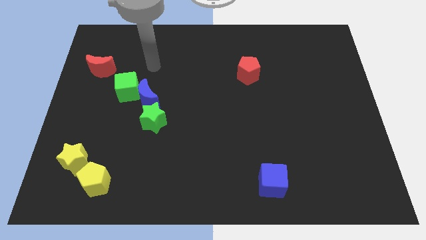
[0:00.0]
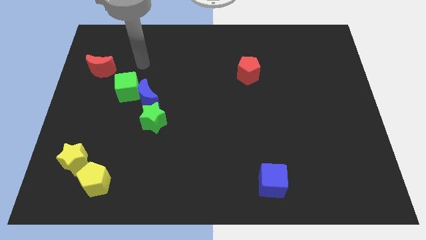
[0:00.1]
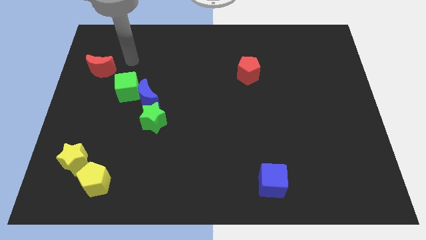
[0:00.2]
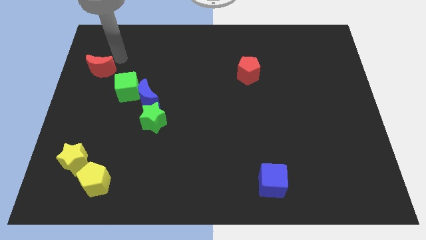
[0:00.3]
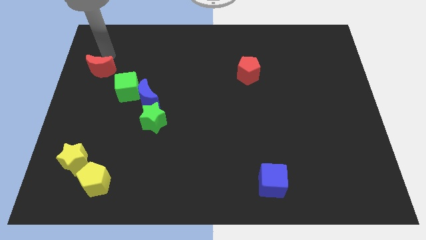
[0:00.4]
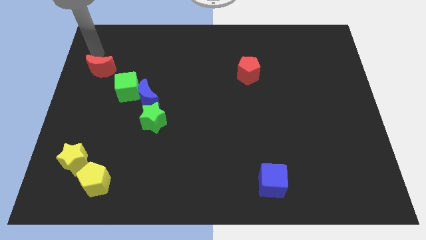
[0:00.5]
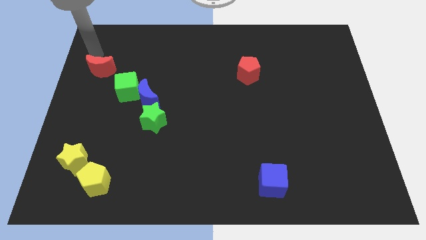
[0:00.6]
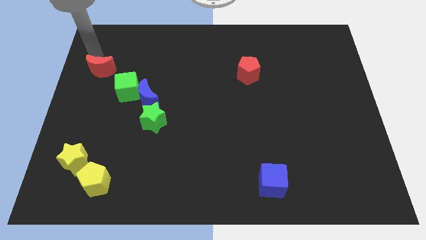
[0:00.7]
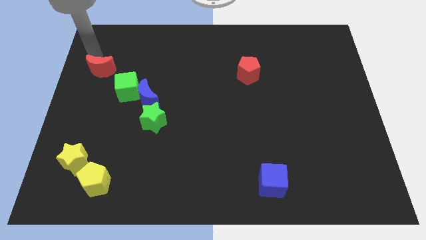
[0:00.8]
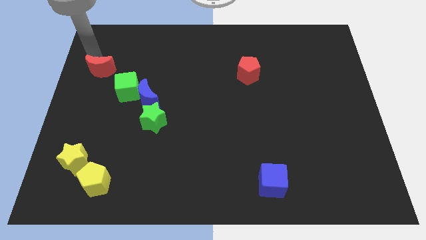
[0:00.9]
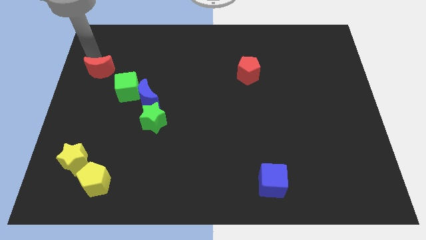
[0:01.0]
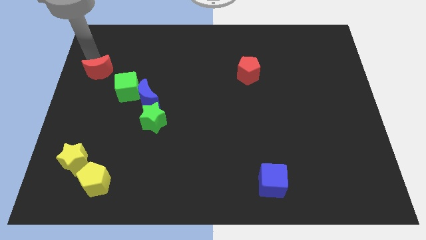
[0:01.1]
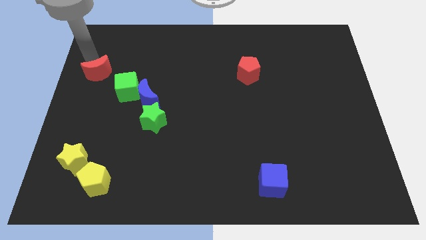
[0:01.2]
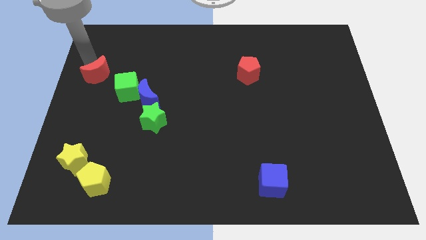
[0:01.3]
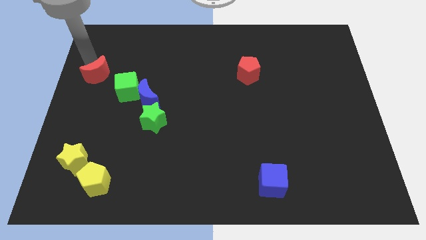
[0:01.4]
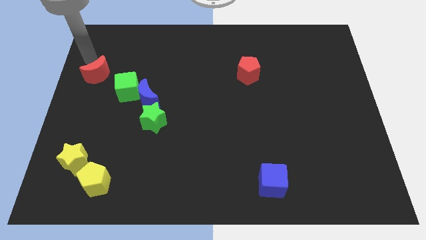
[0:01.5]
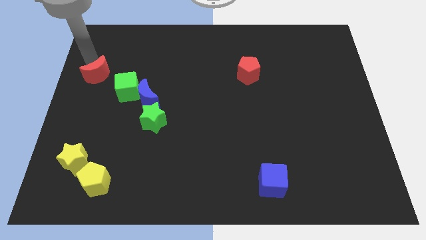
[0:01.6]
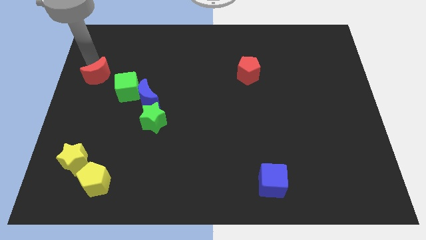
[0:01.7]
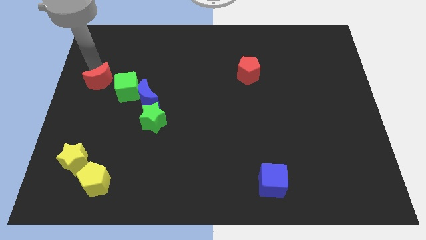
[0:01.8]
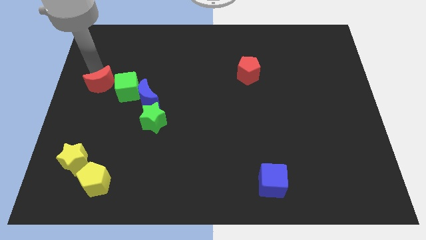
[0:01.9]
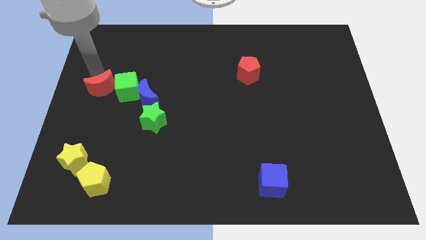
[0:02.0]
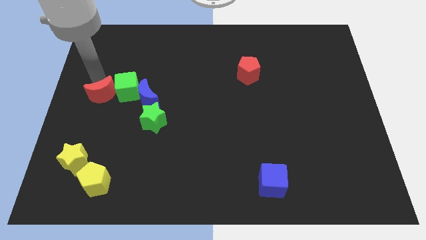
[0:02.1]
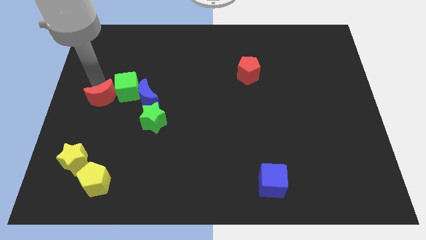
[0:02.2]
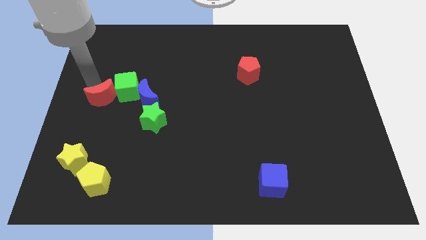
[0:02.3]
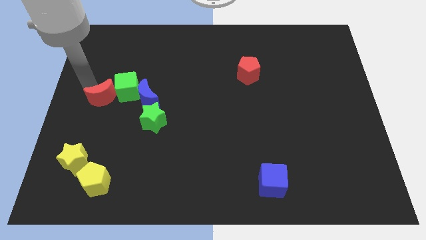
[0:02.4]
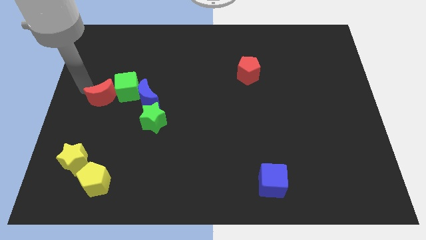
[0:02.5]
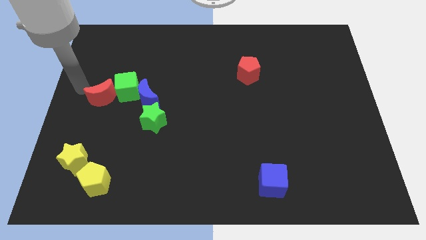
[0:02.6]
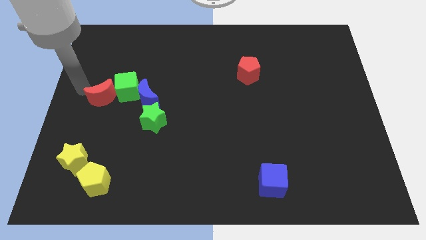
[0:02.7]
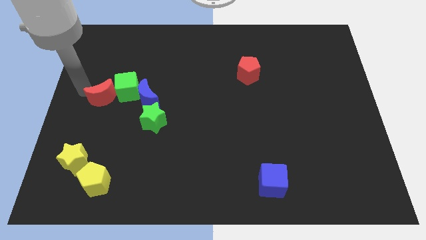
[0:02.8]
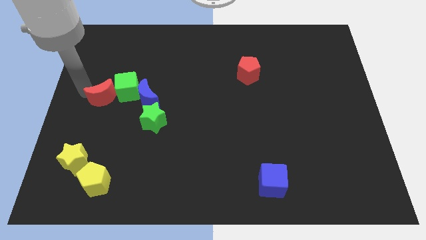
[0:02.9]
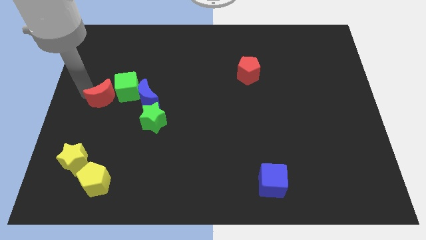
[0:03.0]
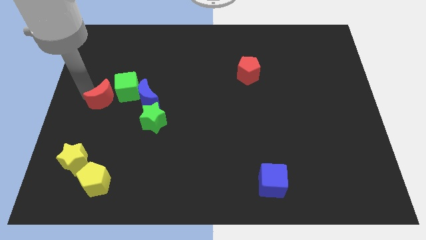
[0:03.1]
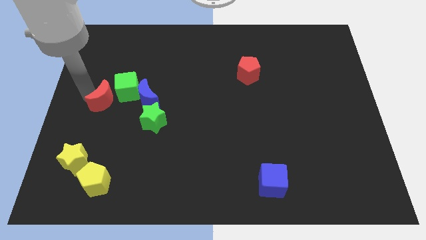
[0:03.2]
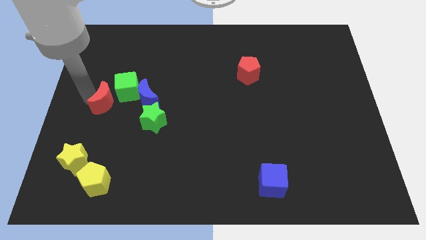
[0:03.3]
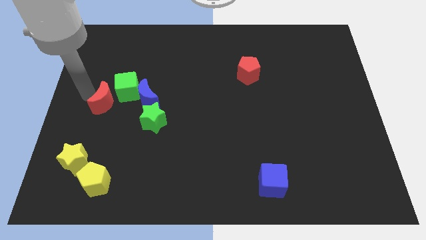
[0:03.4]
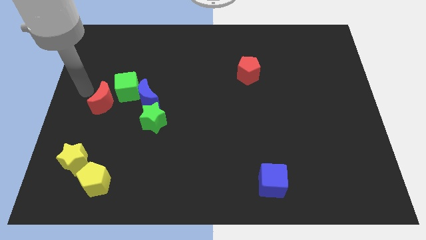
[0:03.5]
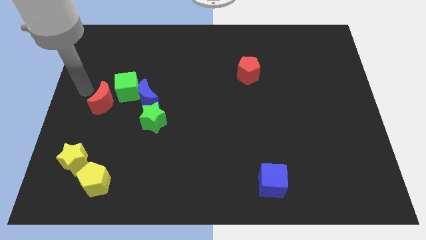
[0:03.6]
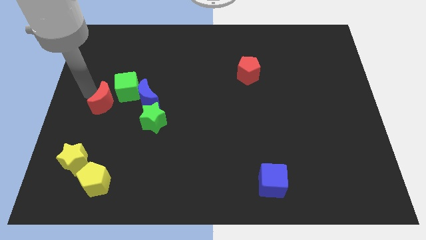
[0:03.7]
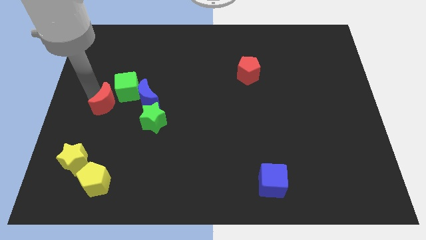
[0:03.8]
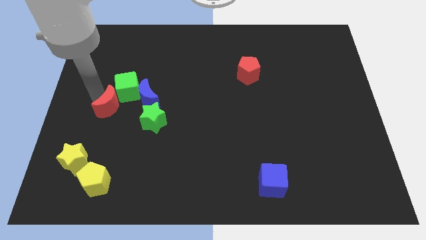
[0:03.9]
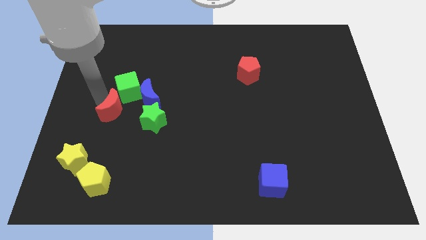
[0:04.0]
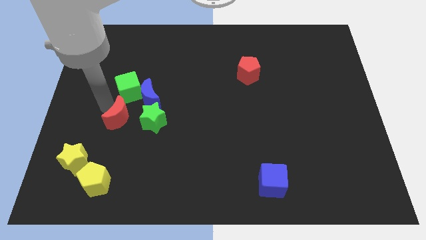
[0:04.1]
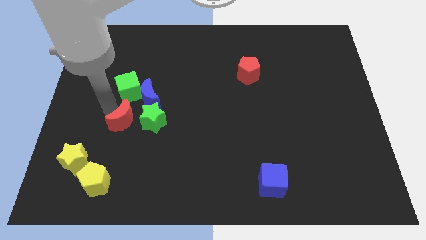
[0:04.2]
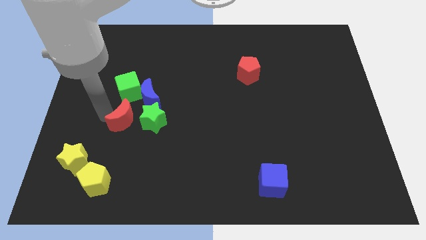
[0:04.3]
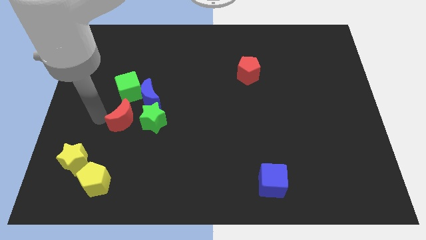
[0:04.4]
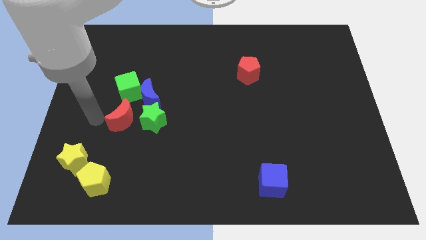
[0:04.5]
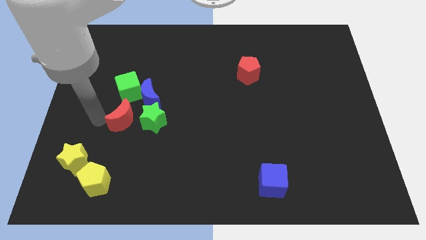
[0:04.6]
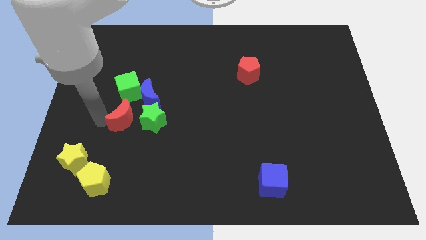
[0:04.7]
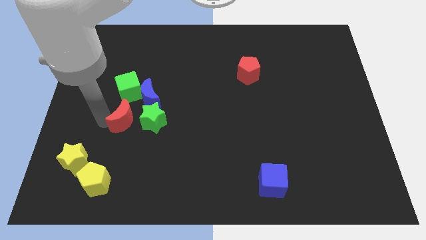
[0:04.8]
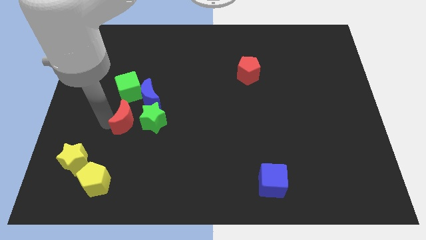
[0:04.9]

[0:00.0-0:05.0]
slide the red moon towards the green star

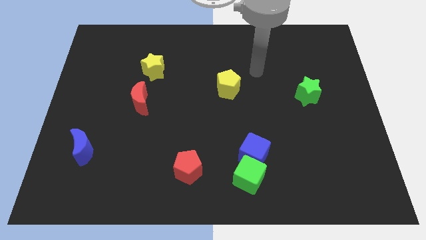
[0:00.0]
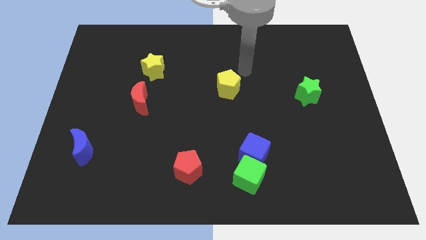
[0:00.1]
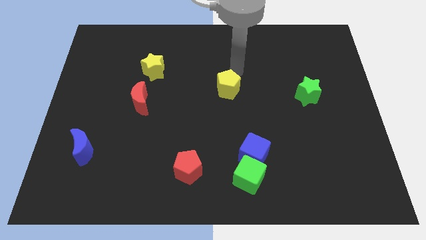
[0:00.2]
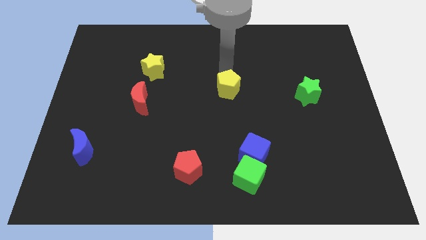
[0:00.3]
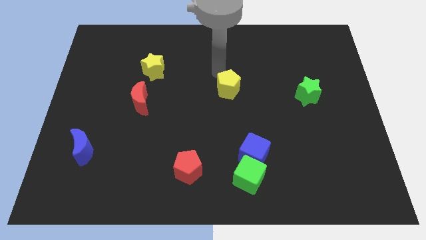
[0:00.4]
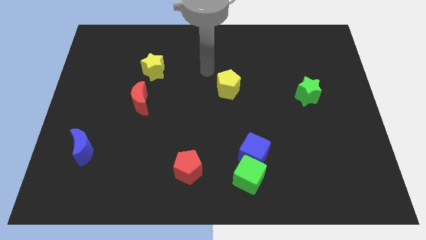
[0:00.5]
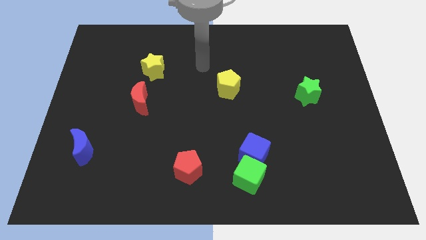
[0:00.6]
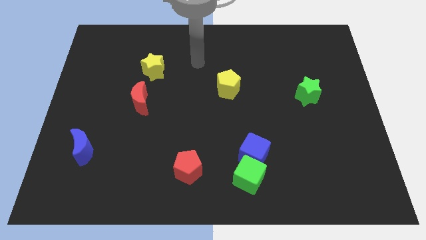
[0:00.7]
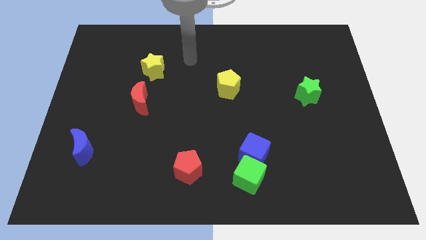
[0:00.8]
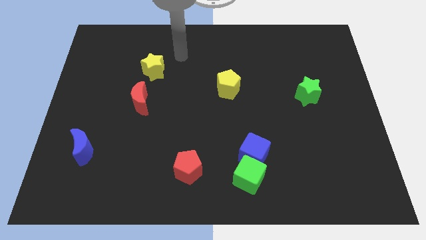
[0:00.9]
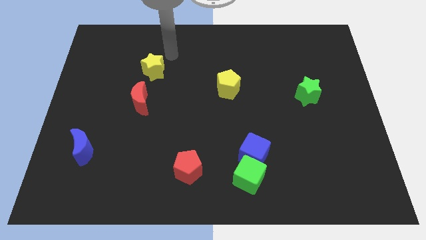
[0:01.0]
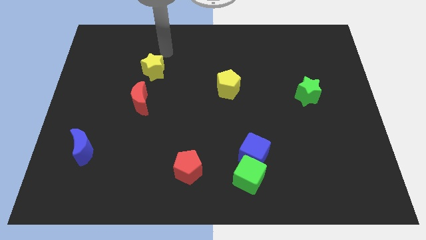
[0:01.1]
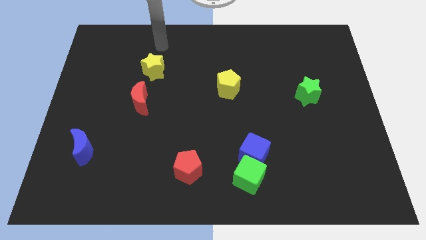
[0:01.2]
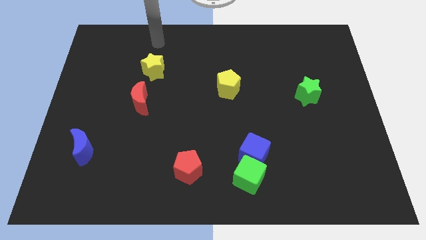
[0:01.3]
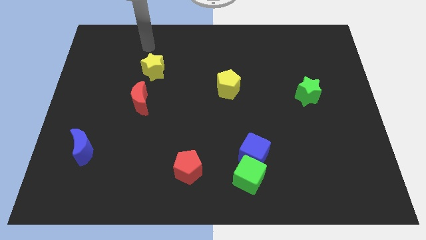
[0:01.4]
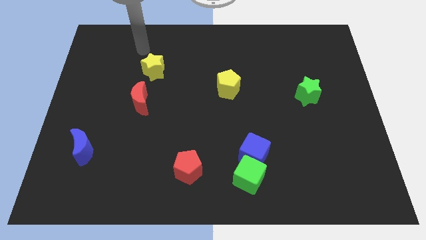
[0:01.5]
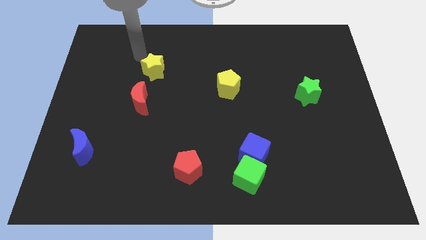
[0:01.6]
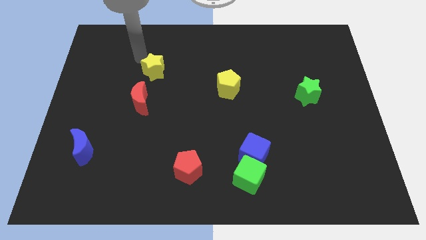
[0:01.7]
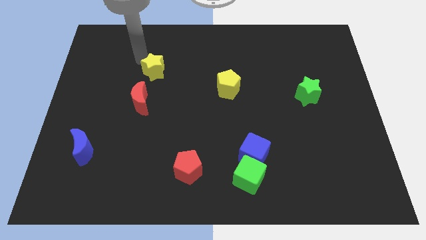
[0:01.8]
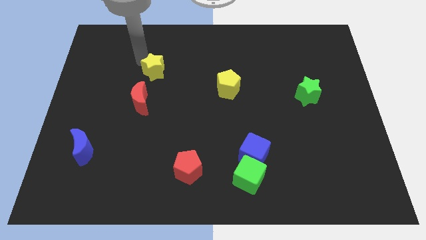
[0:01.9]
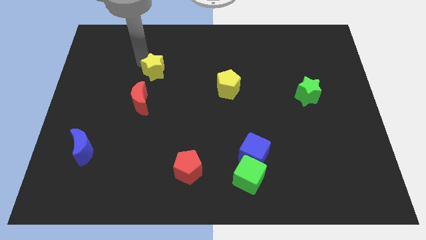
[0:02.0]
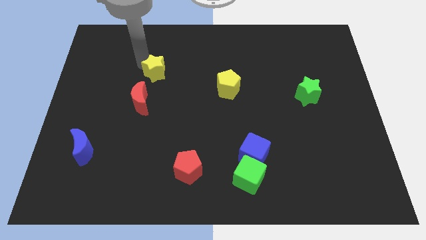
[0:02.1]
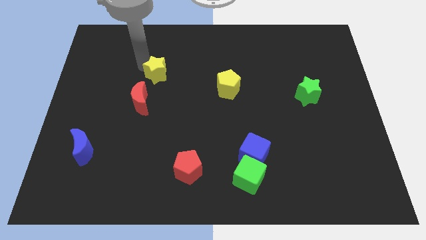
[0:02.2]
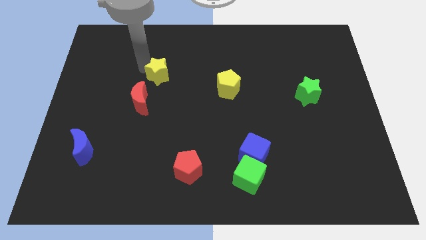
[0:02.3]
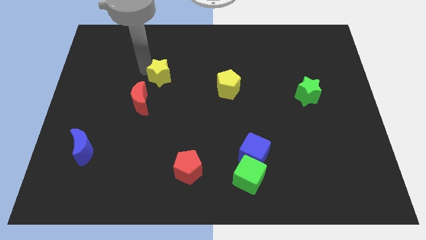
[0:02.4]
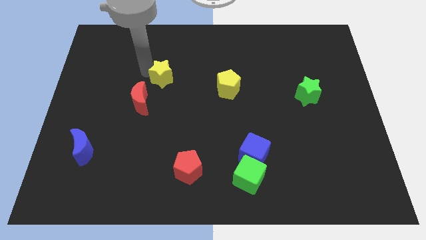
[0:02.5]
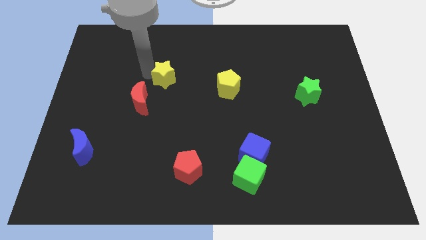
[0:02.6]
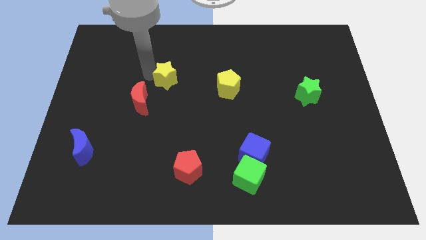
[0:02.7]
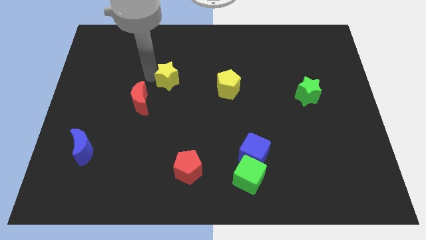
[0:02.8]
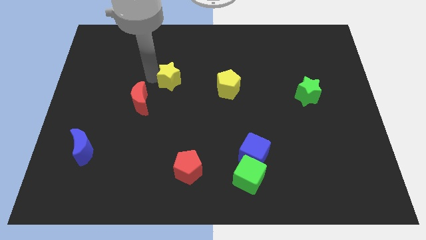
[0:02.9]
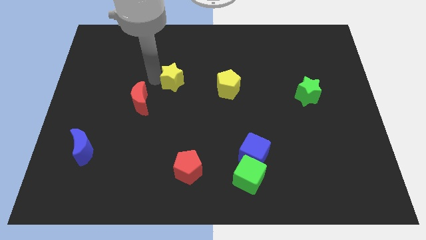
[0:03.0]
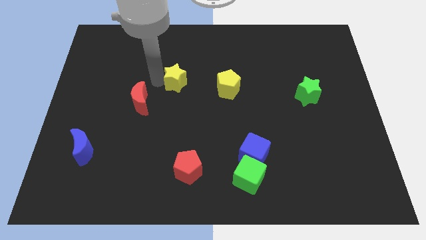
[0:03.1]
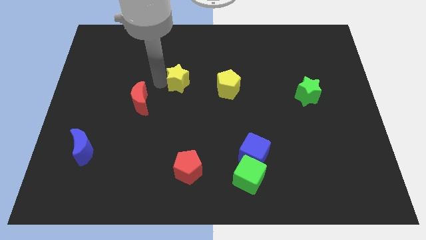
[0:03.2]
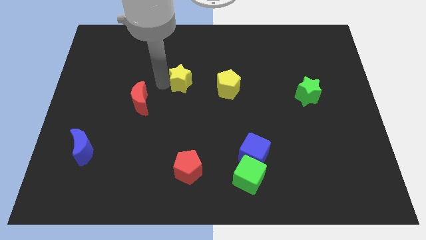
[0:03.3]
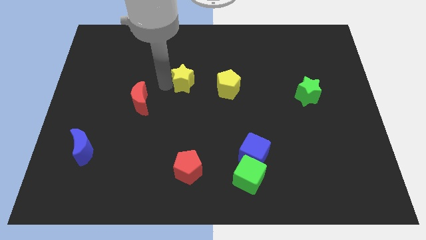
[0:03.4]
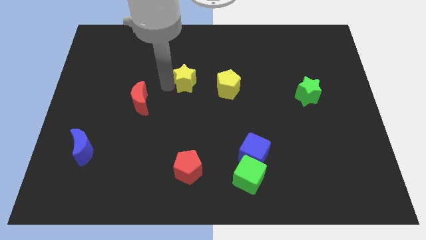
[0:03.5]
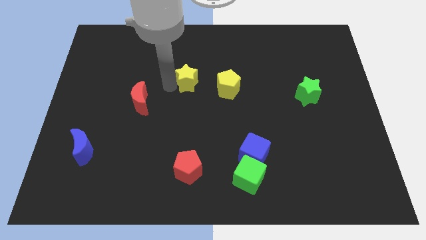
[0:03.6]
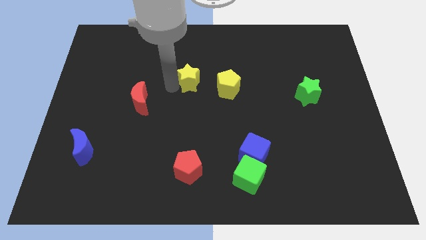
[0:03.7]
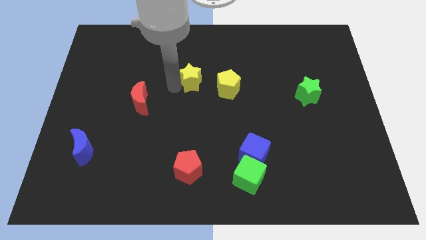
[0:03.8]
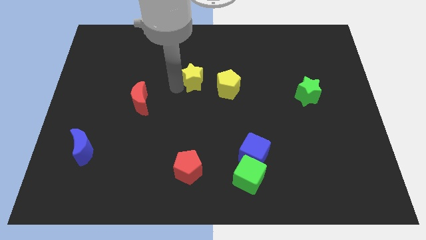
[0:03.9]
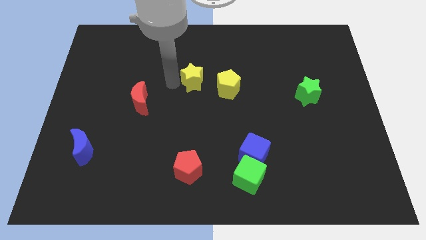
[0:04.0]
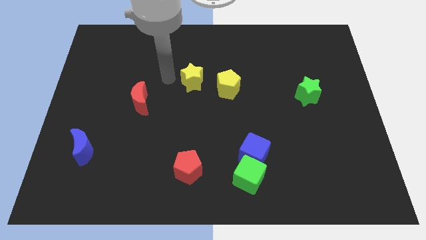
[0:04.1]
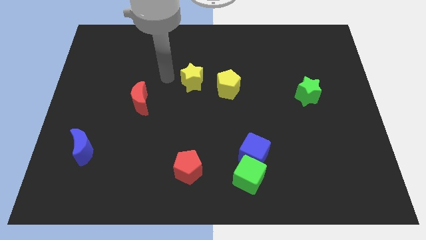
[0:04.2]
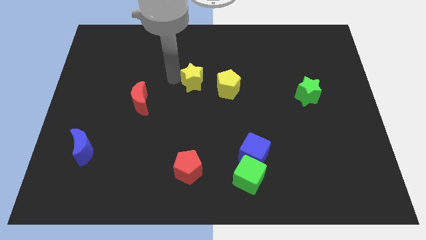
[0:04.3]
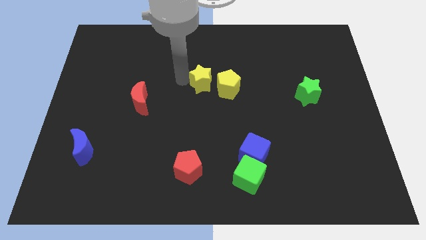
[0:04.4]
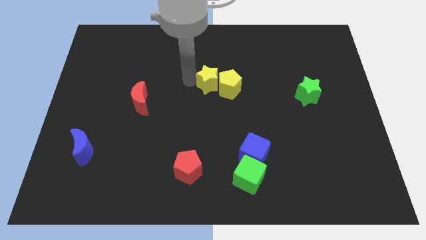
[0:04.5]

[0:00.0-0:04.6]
move the yellow star to the yellow pentagon
